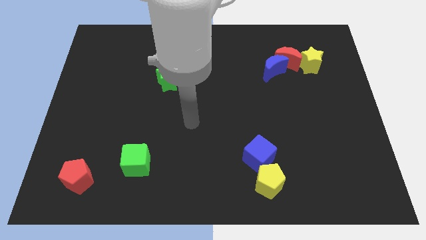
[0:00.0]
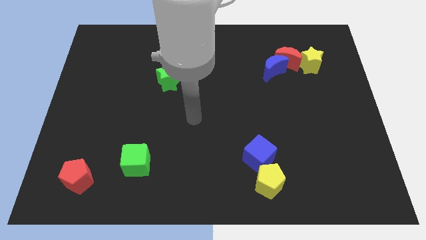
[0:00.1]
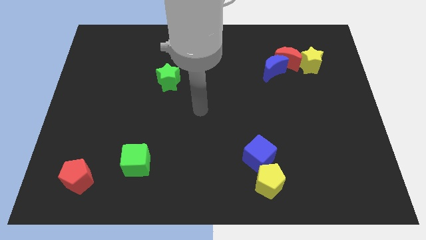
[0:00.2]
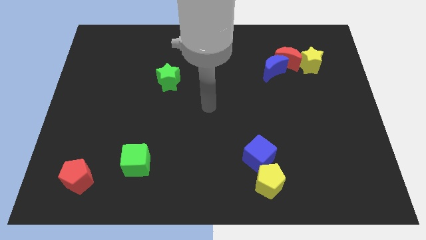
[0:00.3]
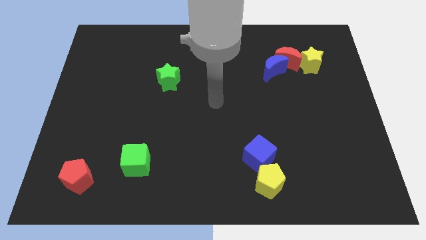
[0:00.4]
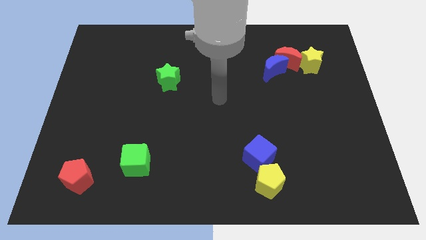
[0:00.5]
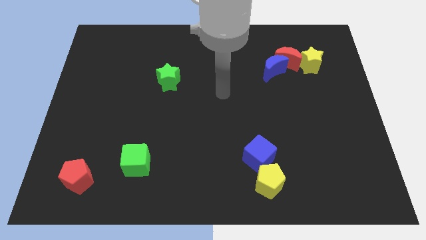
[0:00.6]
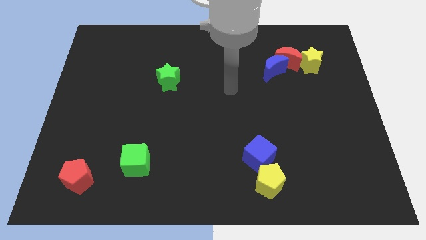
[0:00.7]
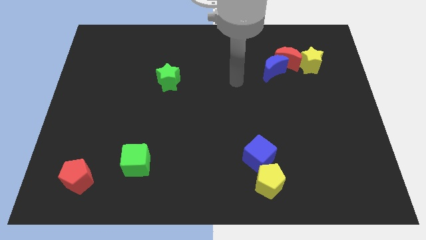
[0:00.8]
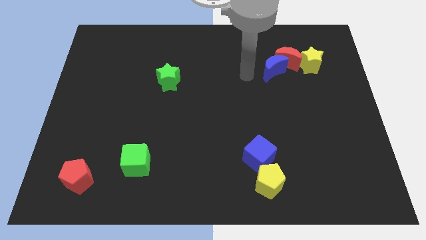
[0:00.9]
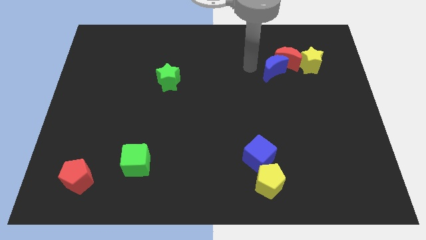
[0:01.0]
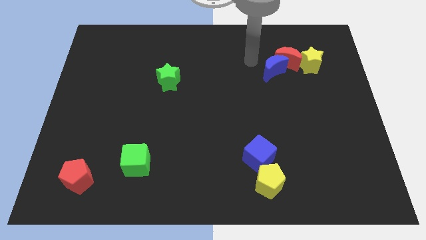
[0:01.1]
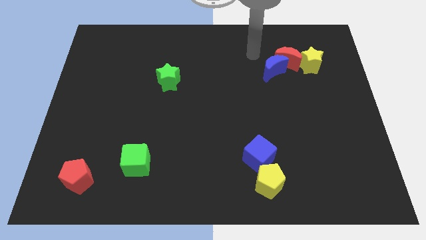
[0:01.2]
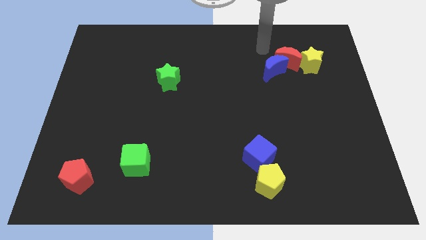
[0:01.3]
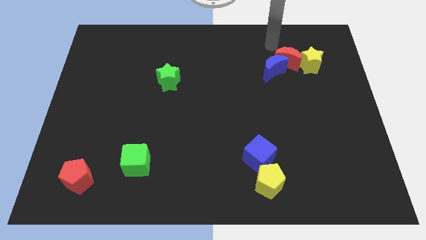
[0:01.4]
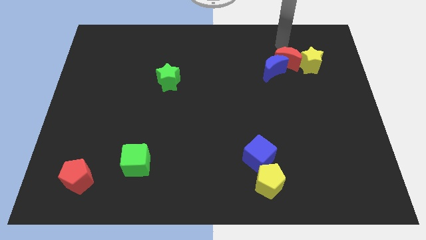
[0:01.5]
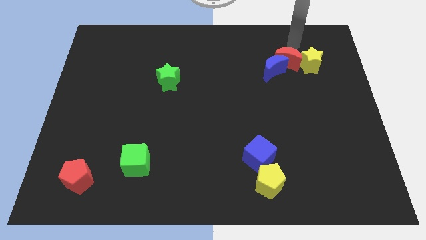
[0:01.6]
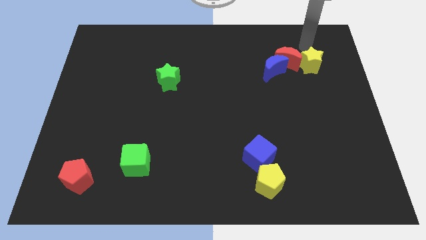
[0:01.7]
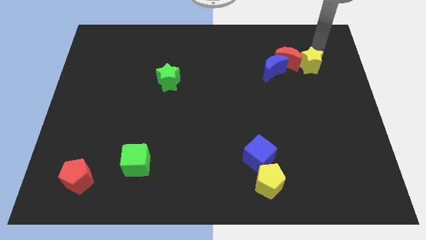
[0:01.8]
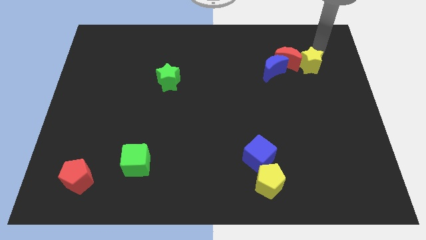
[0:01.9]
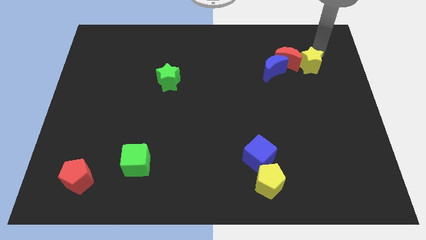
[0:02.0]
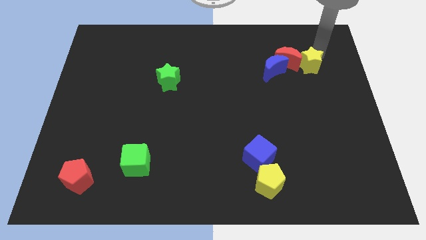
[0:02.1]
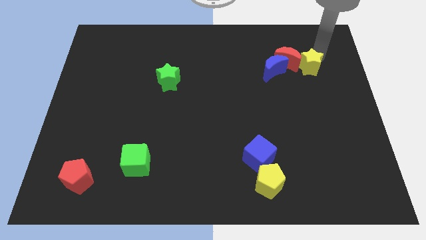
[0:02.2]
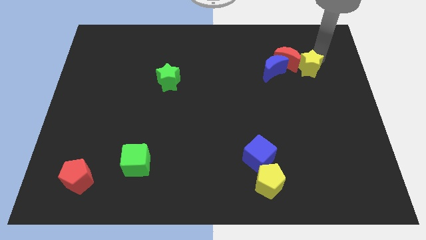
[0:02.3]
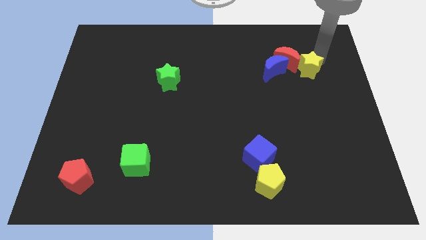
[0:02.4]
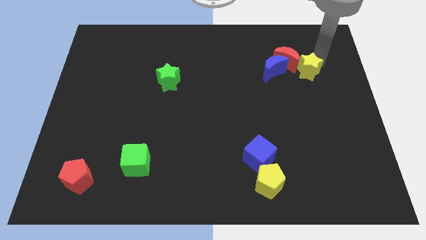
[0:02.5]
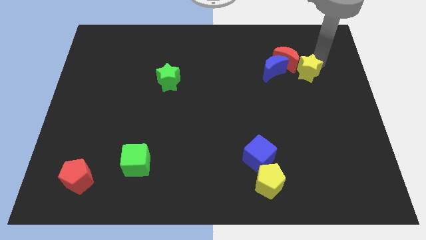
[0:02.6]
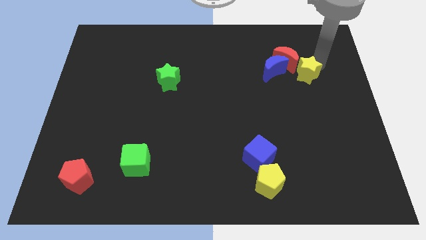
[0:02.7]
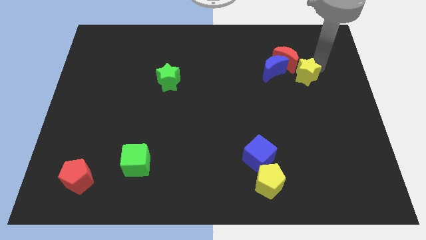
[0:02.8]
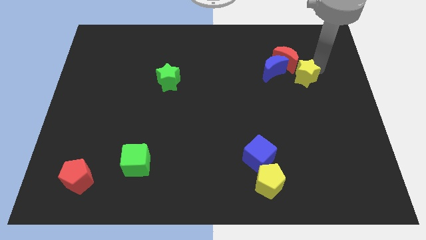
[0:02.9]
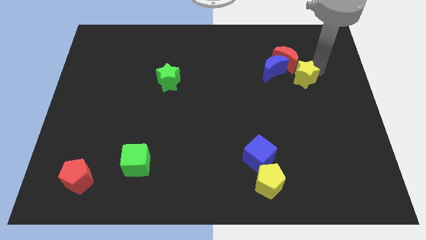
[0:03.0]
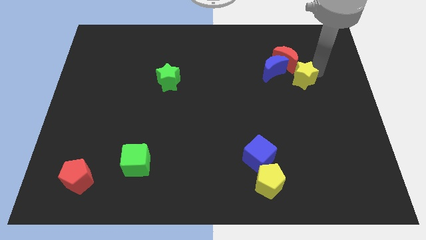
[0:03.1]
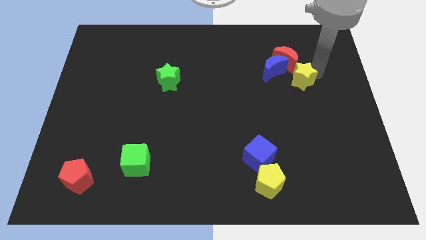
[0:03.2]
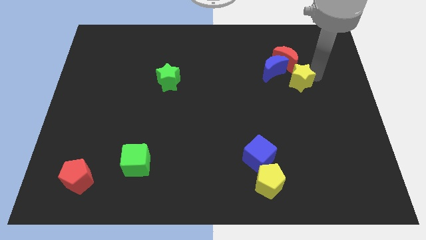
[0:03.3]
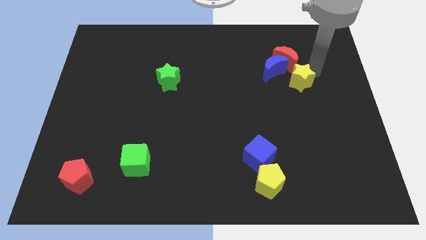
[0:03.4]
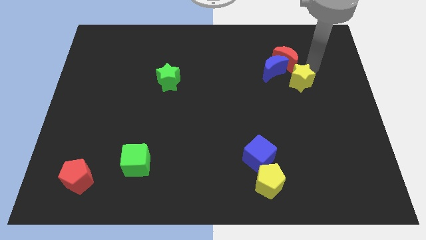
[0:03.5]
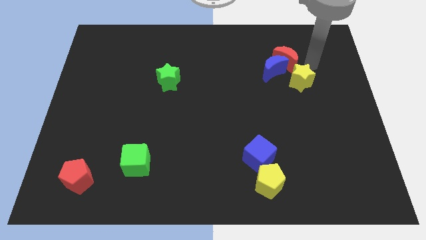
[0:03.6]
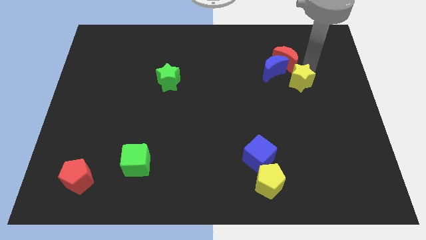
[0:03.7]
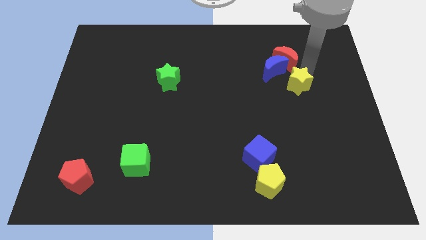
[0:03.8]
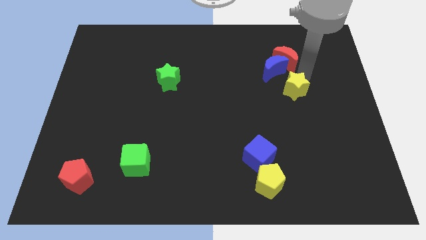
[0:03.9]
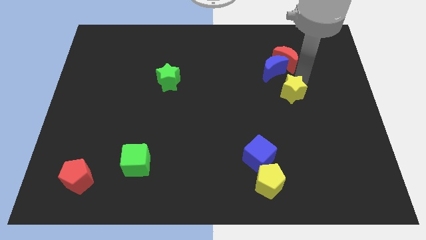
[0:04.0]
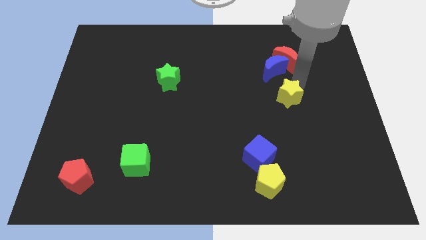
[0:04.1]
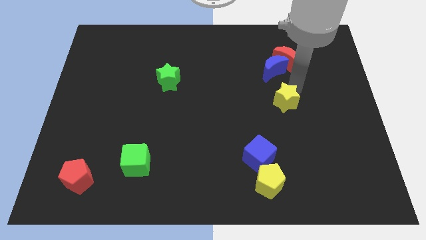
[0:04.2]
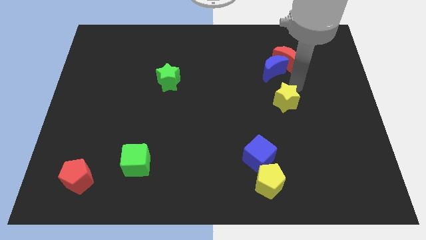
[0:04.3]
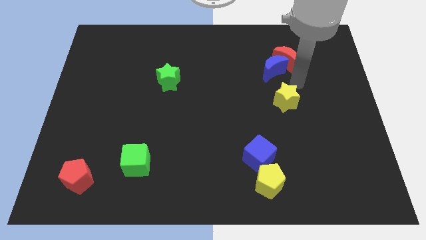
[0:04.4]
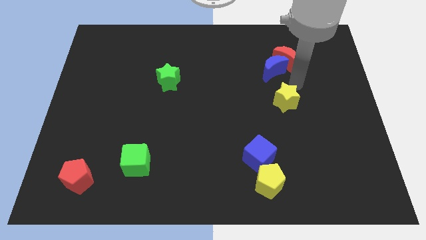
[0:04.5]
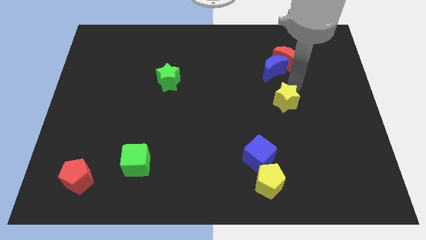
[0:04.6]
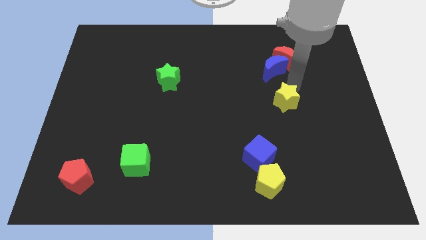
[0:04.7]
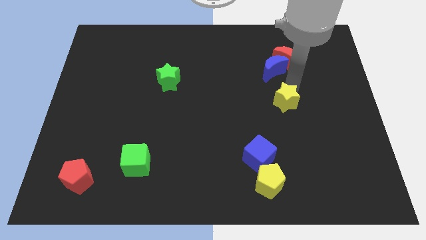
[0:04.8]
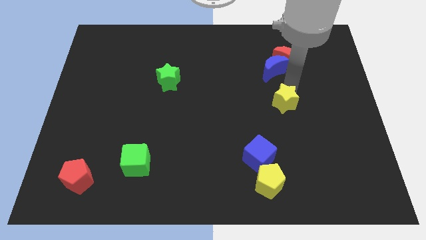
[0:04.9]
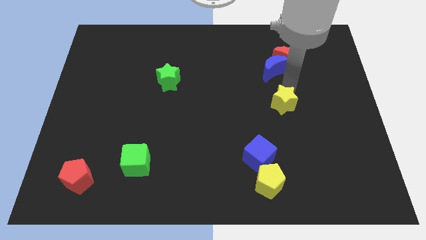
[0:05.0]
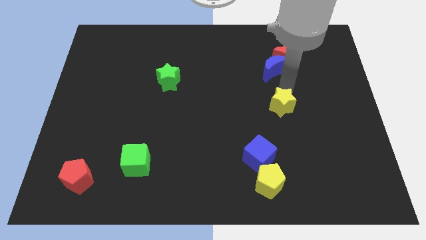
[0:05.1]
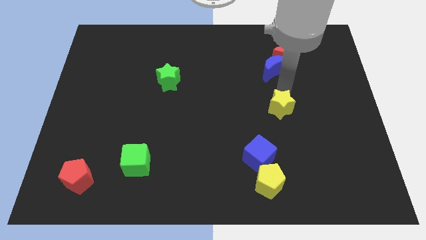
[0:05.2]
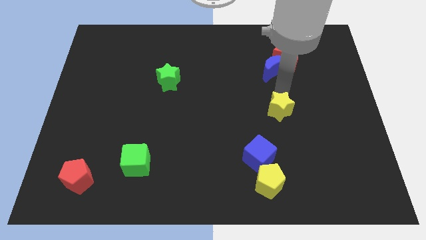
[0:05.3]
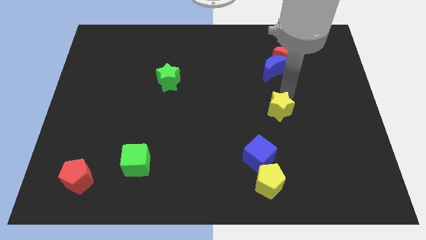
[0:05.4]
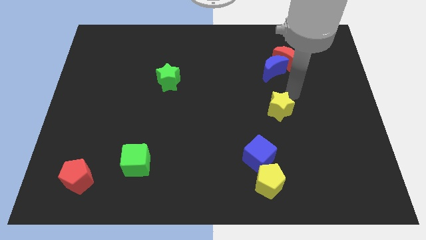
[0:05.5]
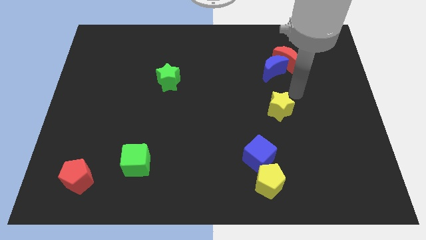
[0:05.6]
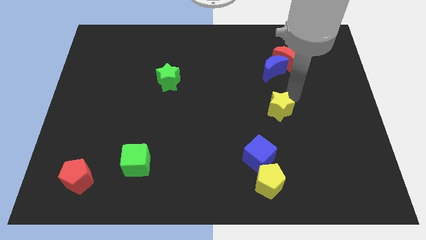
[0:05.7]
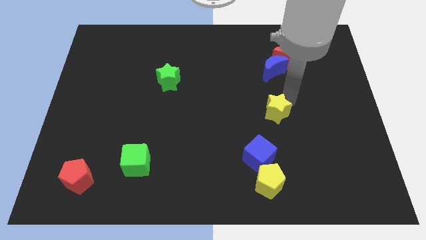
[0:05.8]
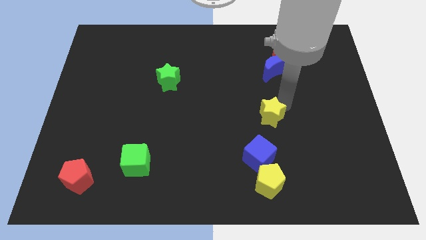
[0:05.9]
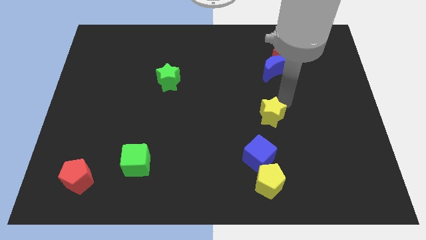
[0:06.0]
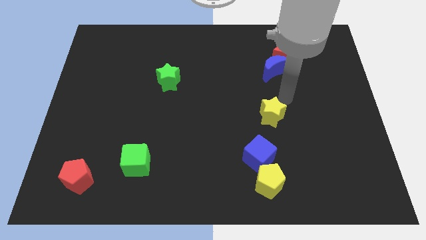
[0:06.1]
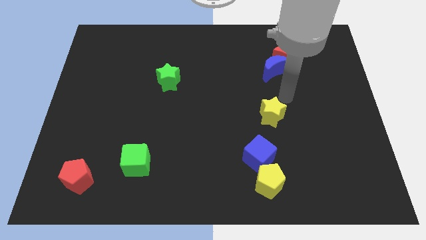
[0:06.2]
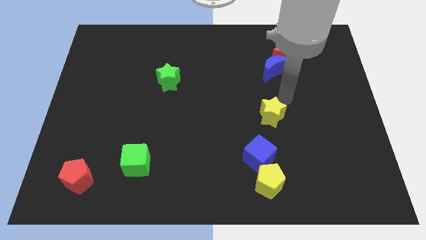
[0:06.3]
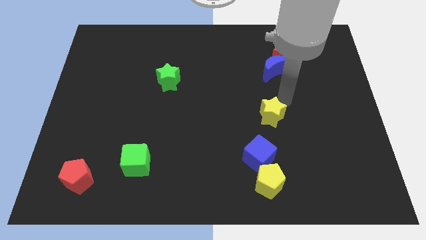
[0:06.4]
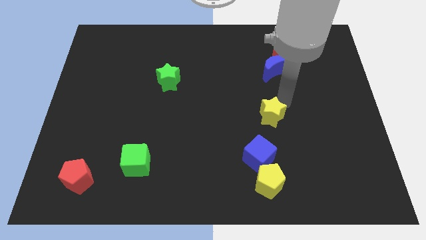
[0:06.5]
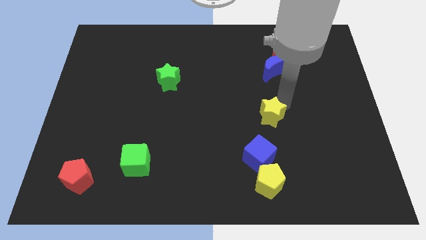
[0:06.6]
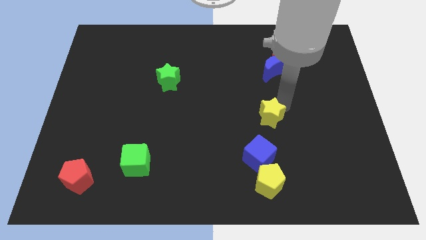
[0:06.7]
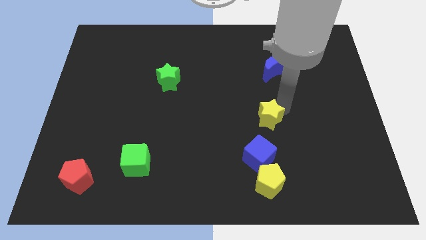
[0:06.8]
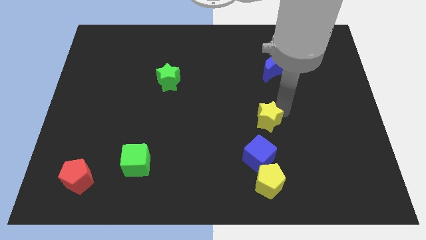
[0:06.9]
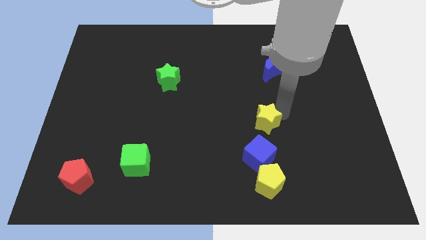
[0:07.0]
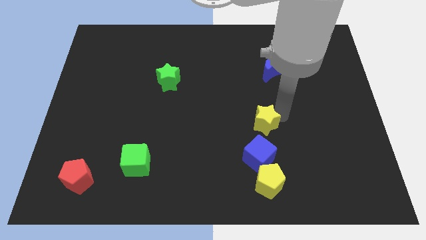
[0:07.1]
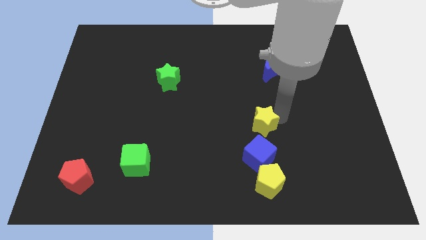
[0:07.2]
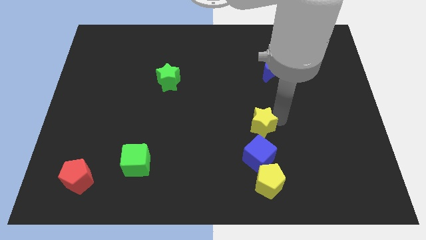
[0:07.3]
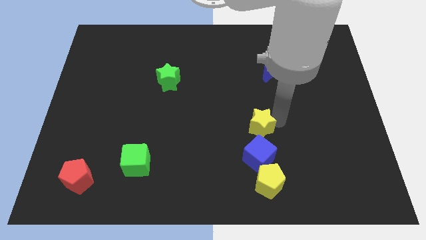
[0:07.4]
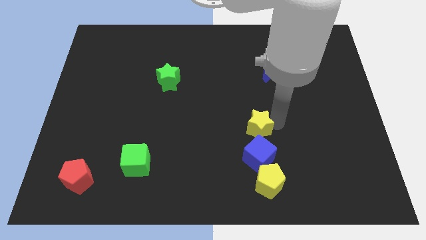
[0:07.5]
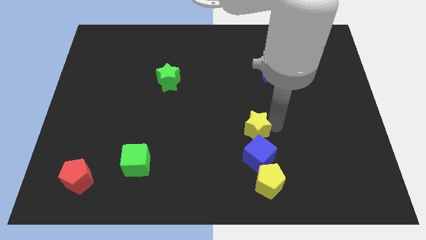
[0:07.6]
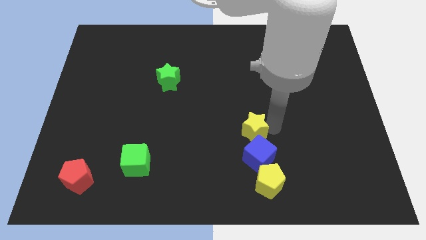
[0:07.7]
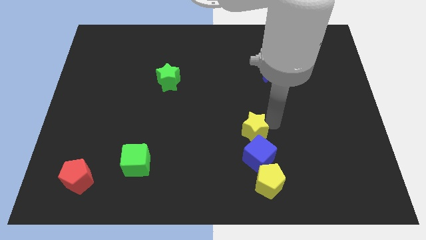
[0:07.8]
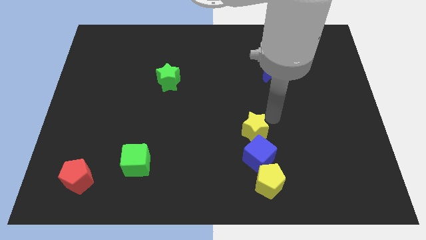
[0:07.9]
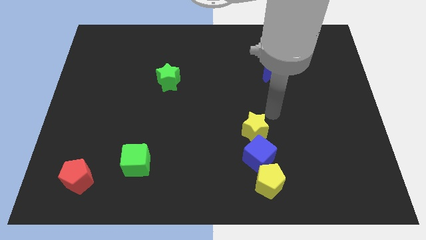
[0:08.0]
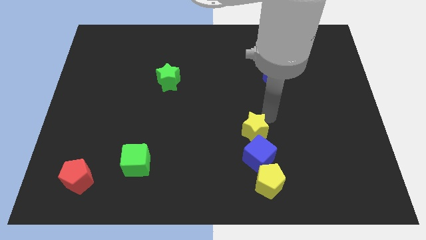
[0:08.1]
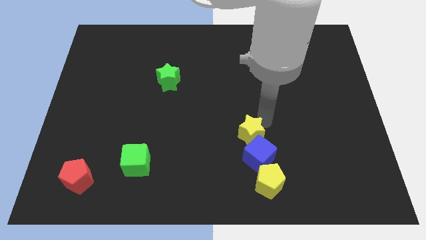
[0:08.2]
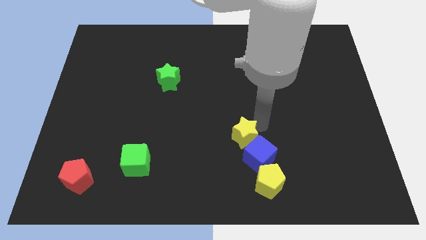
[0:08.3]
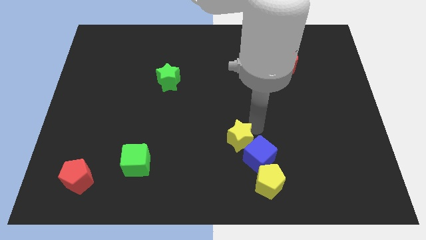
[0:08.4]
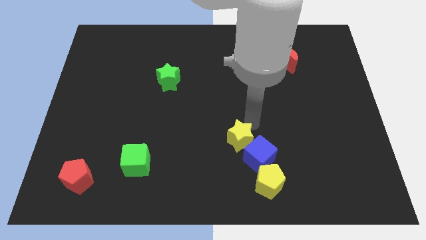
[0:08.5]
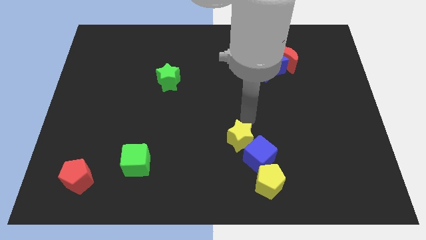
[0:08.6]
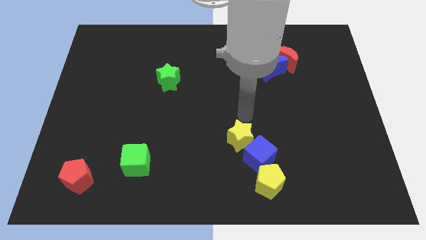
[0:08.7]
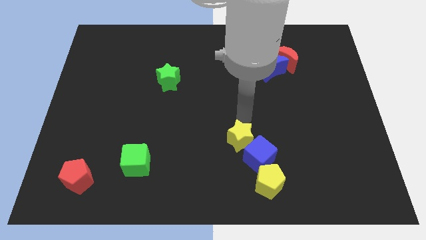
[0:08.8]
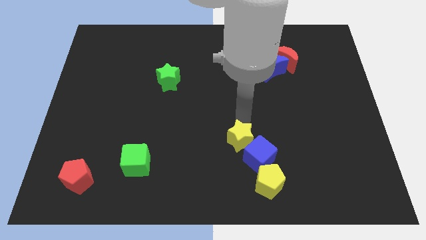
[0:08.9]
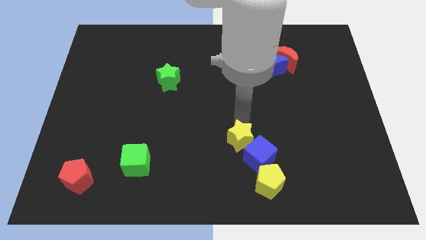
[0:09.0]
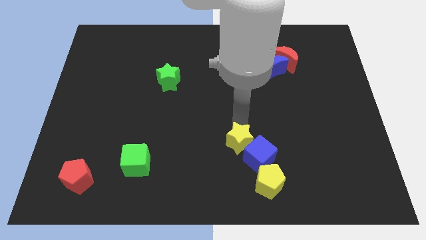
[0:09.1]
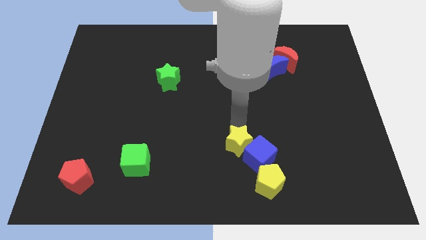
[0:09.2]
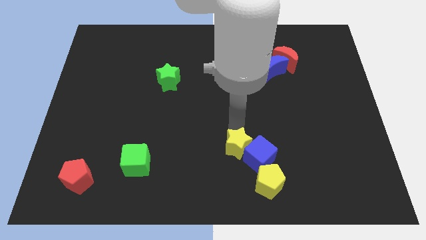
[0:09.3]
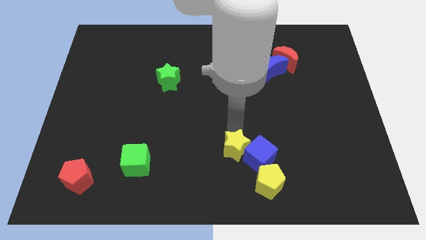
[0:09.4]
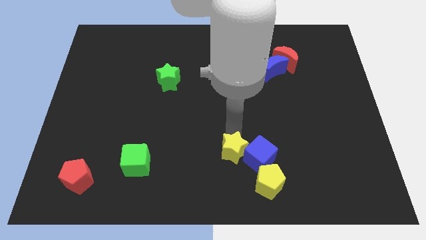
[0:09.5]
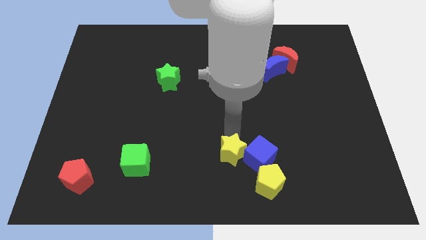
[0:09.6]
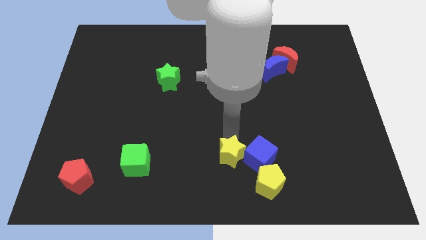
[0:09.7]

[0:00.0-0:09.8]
put the yellow star diagonally down and to the left of the blue cube
